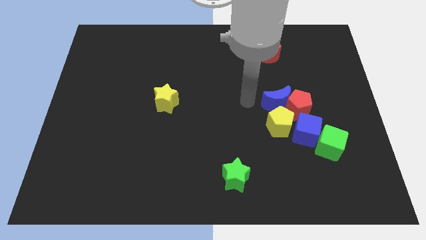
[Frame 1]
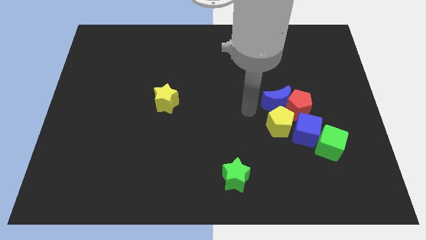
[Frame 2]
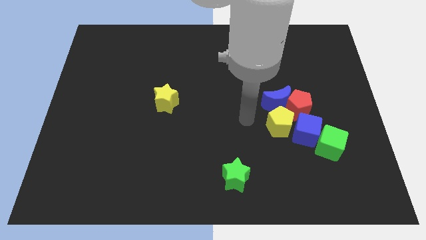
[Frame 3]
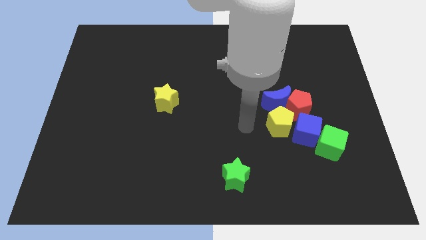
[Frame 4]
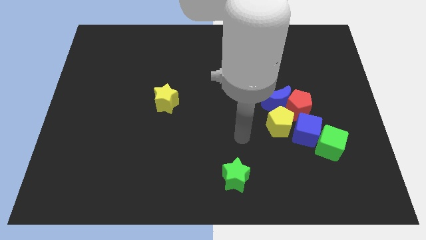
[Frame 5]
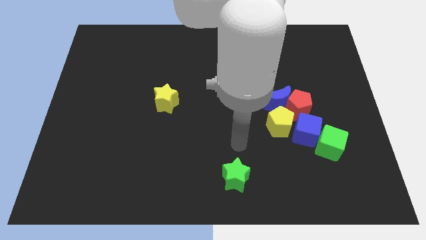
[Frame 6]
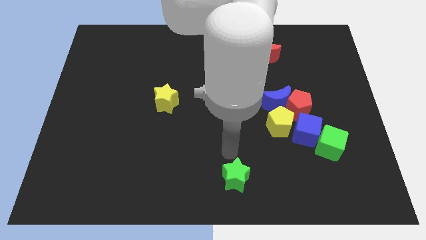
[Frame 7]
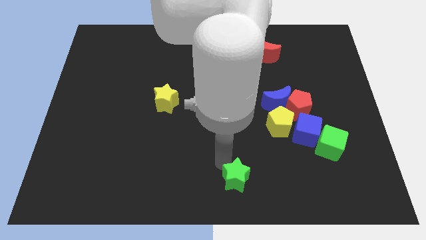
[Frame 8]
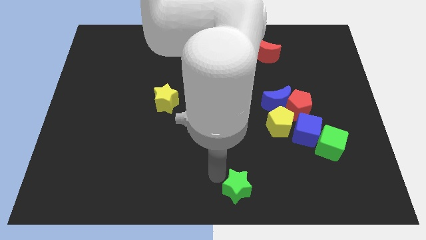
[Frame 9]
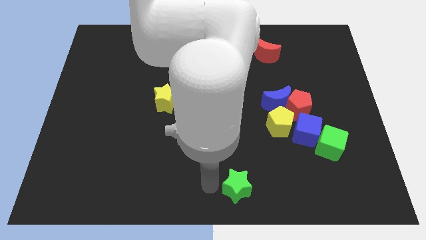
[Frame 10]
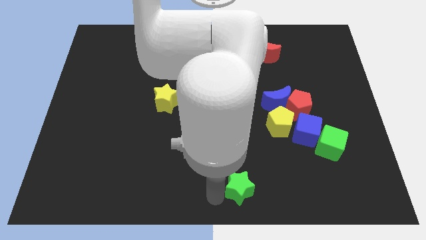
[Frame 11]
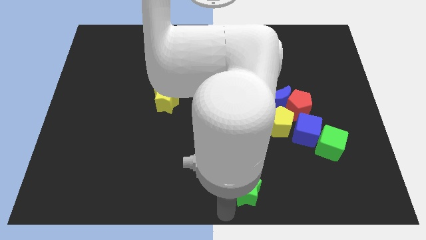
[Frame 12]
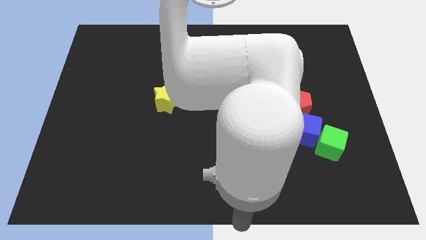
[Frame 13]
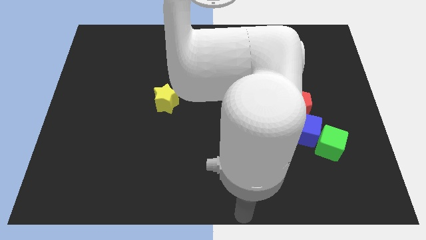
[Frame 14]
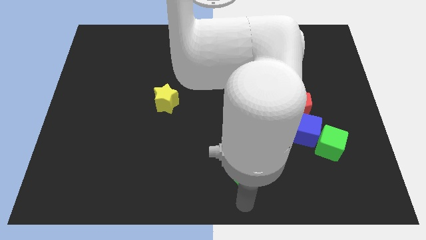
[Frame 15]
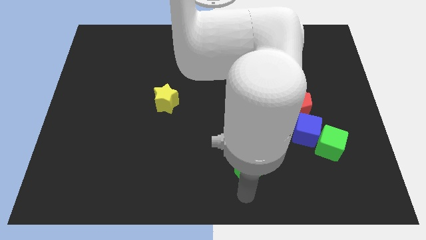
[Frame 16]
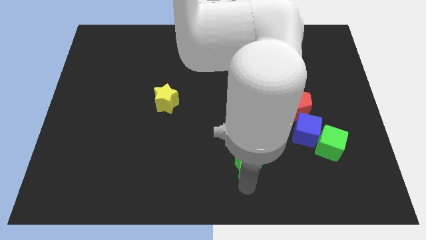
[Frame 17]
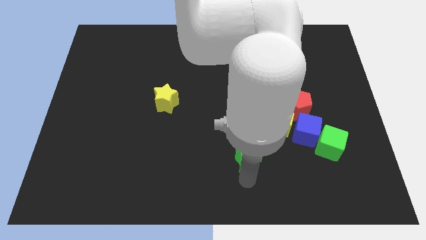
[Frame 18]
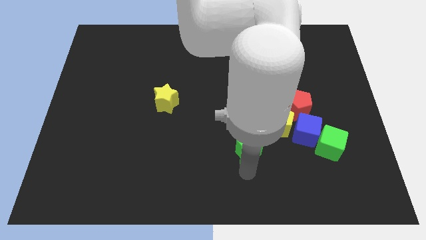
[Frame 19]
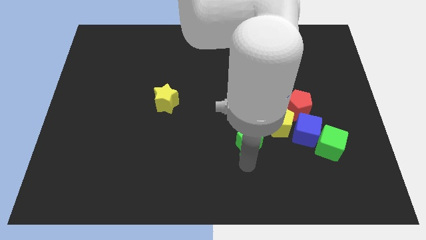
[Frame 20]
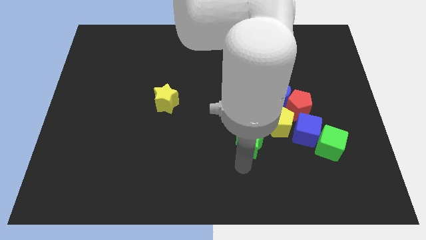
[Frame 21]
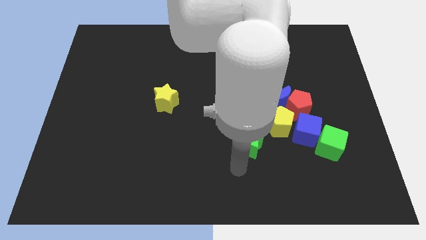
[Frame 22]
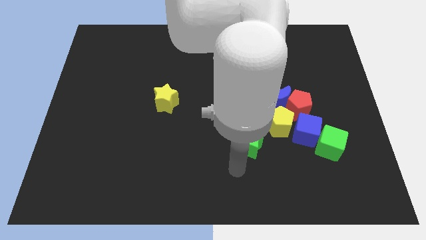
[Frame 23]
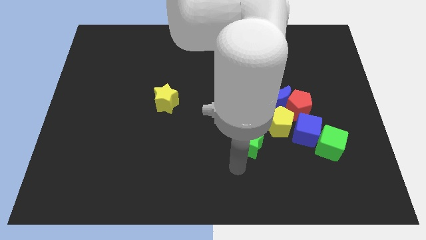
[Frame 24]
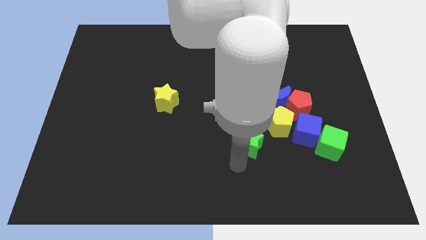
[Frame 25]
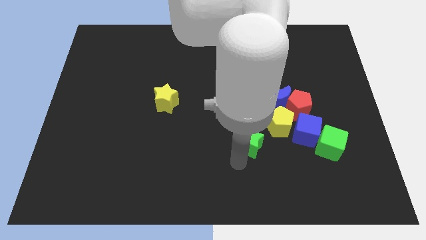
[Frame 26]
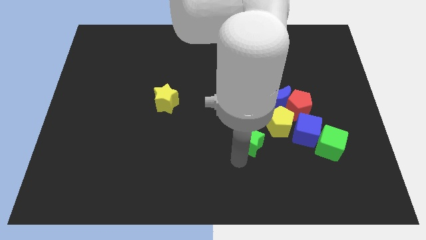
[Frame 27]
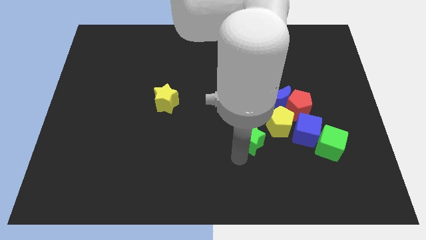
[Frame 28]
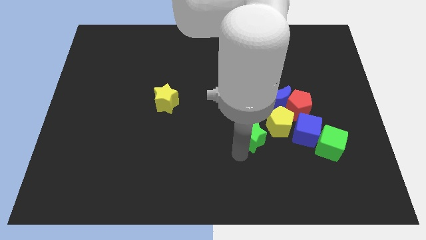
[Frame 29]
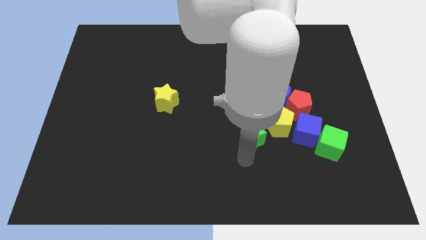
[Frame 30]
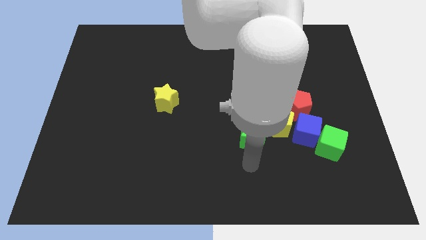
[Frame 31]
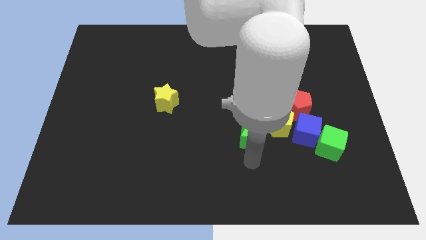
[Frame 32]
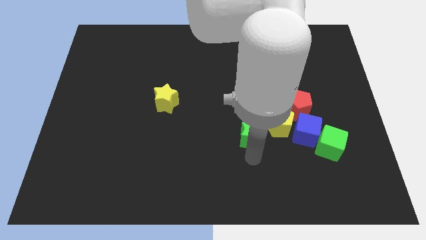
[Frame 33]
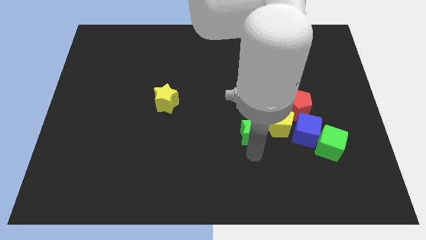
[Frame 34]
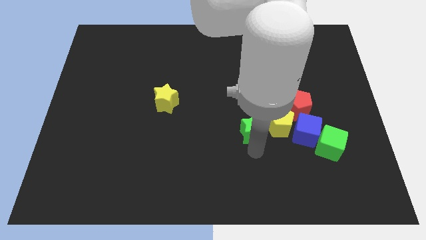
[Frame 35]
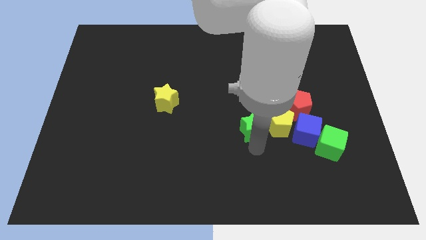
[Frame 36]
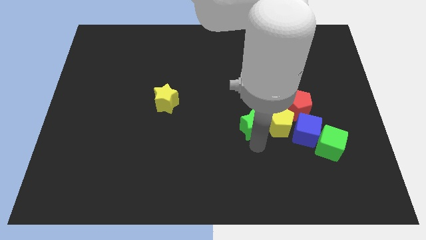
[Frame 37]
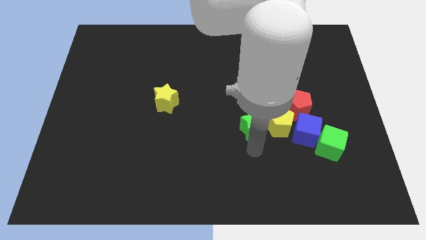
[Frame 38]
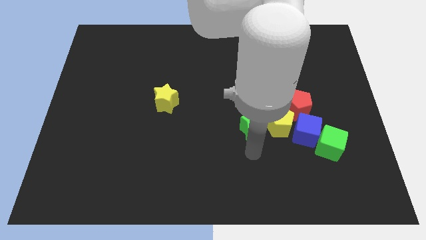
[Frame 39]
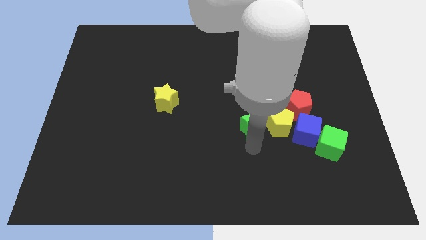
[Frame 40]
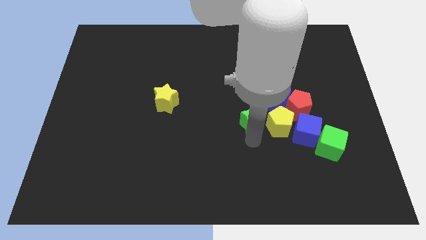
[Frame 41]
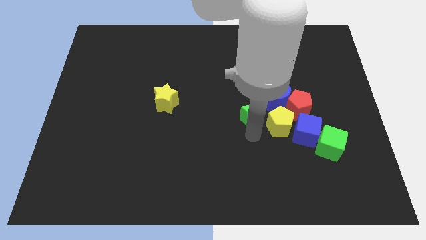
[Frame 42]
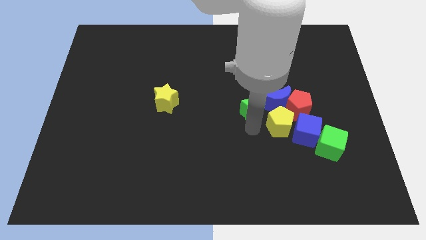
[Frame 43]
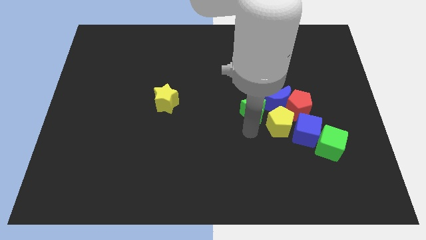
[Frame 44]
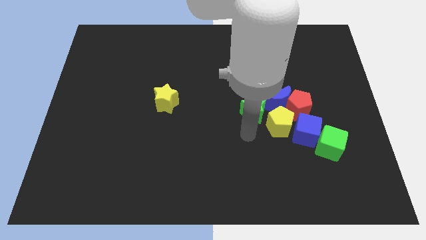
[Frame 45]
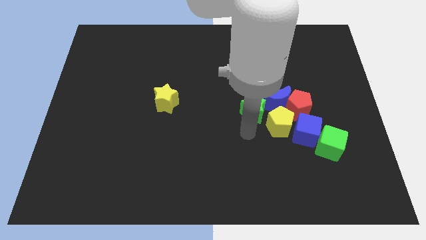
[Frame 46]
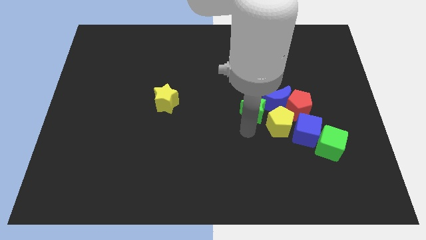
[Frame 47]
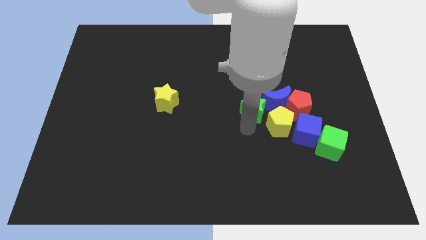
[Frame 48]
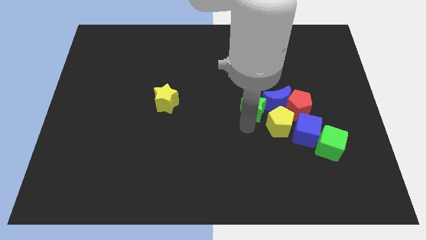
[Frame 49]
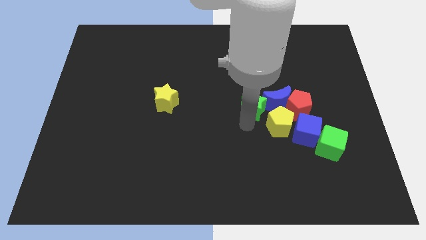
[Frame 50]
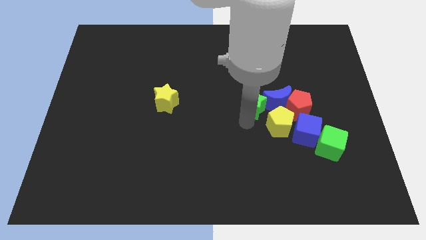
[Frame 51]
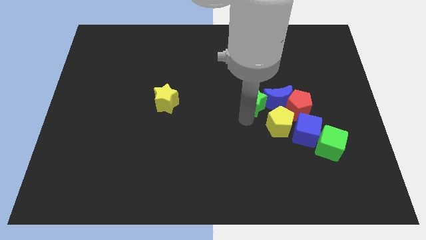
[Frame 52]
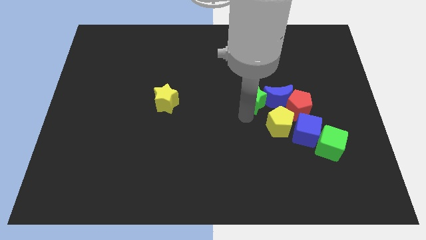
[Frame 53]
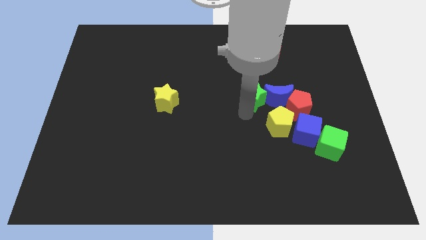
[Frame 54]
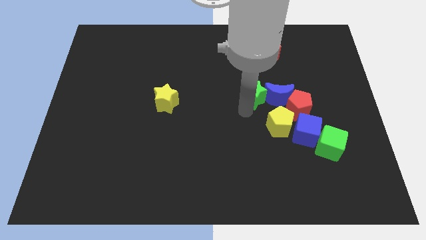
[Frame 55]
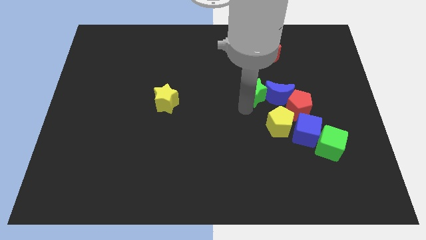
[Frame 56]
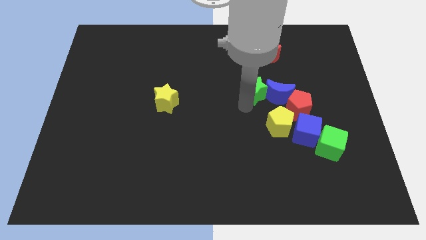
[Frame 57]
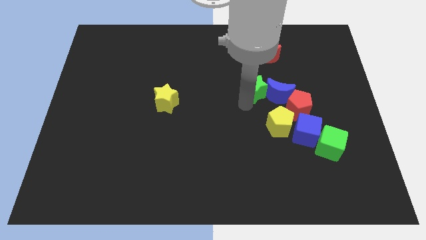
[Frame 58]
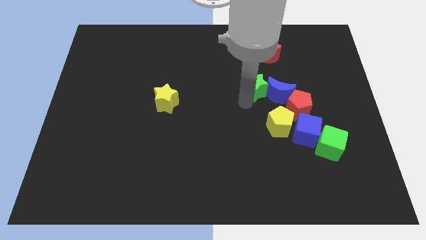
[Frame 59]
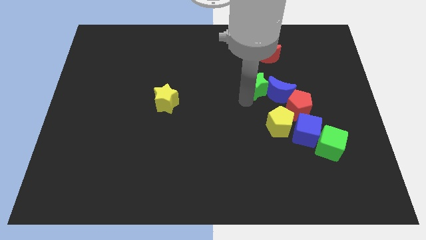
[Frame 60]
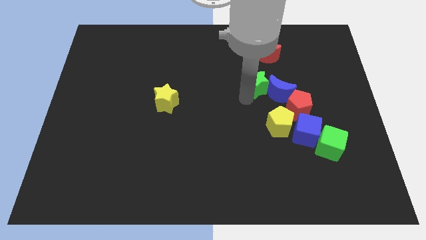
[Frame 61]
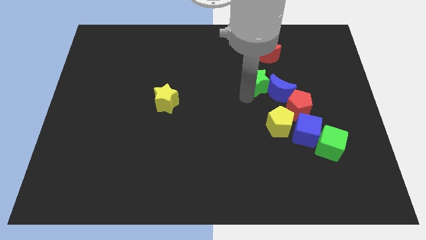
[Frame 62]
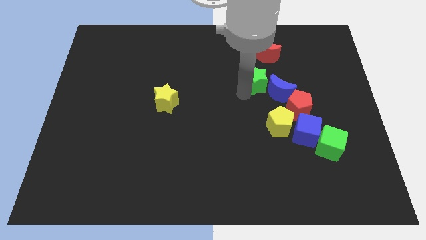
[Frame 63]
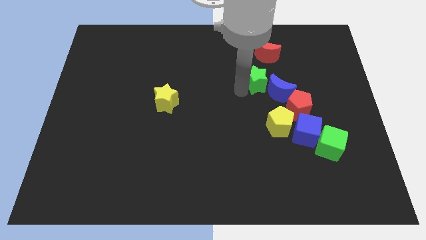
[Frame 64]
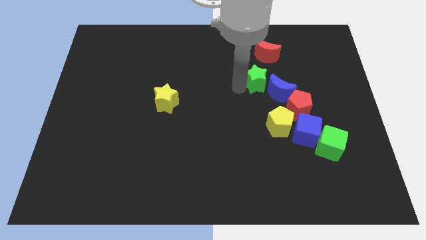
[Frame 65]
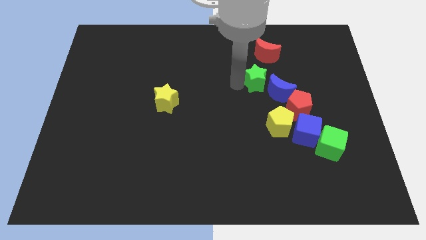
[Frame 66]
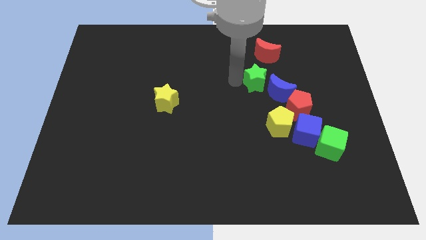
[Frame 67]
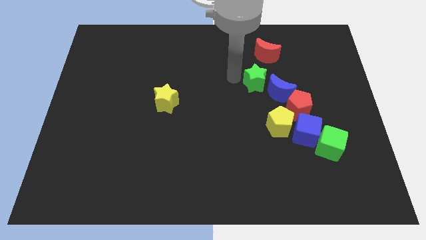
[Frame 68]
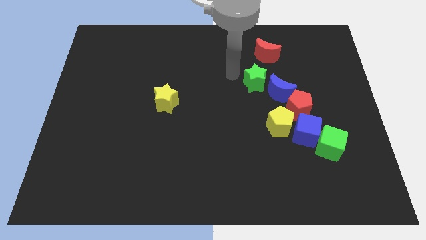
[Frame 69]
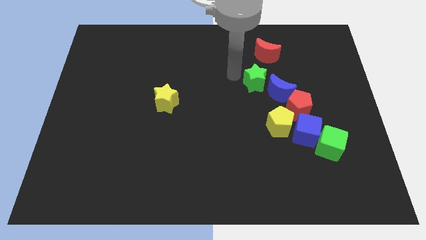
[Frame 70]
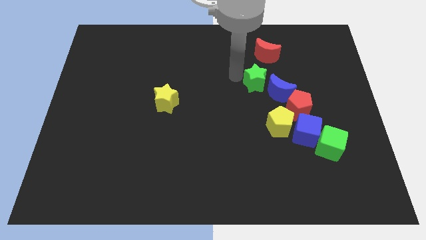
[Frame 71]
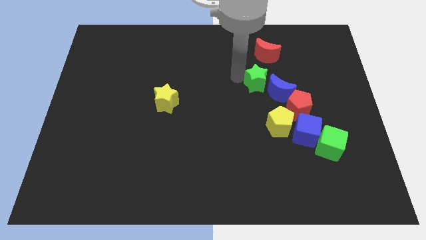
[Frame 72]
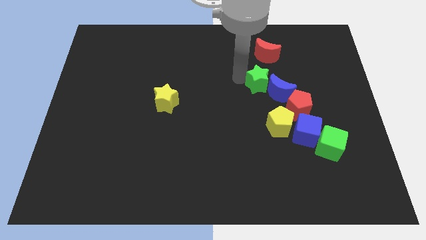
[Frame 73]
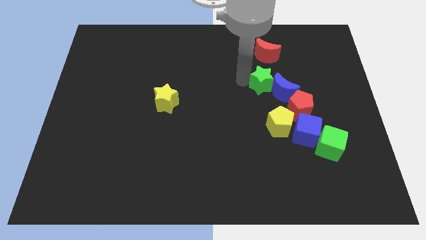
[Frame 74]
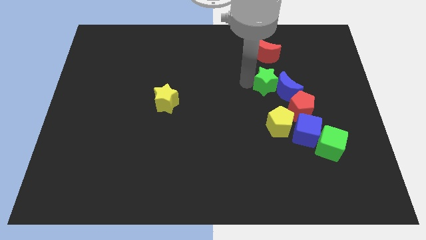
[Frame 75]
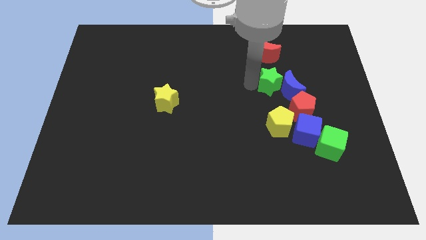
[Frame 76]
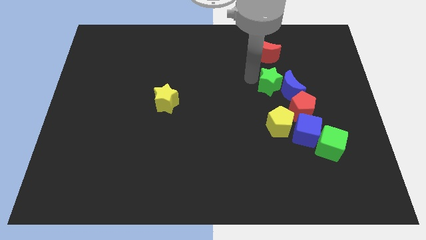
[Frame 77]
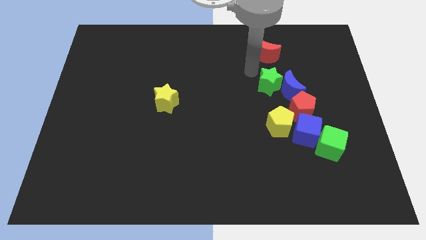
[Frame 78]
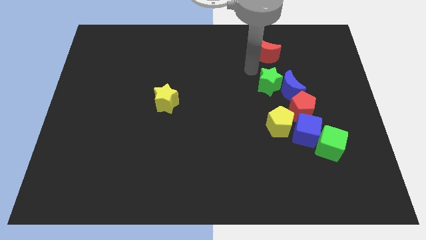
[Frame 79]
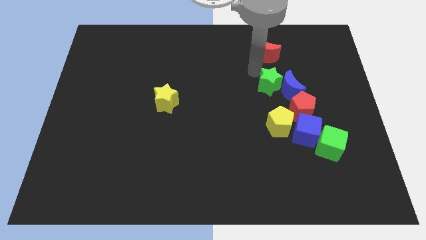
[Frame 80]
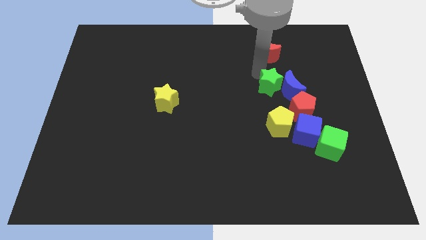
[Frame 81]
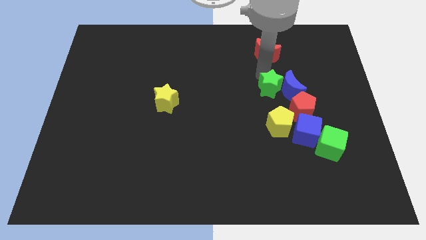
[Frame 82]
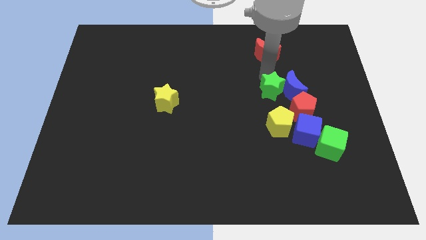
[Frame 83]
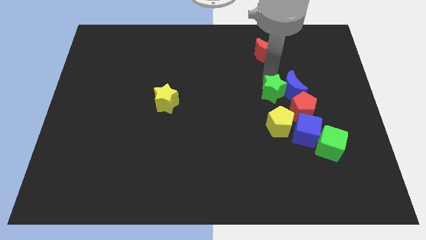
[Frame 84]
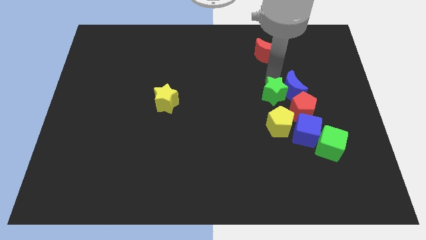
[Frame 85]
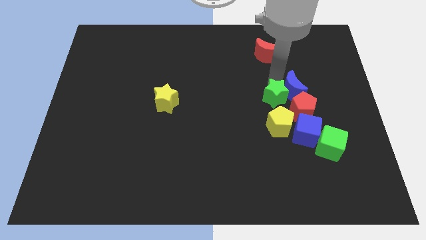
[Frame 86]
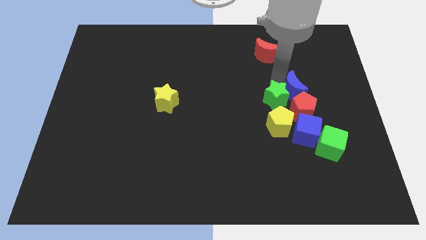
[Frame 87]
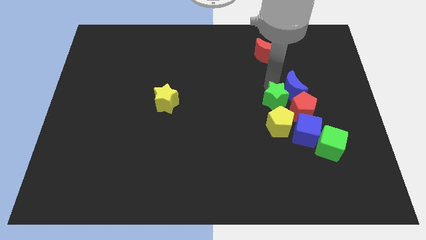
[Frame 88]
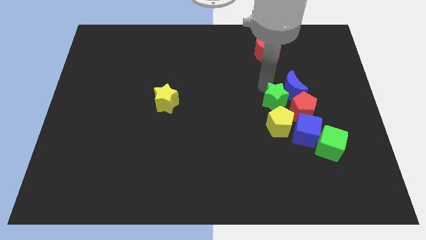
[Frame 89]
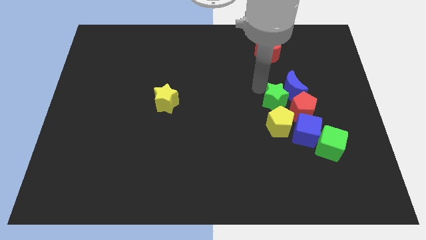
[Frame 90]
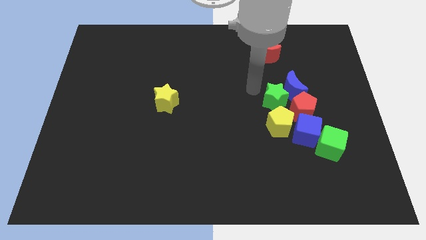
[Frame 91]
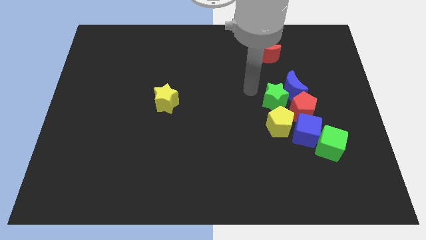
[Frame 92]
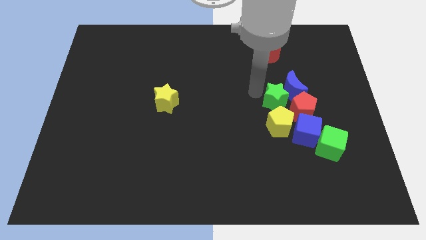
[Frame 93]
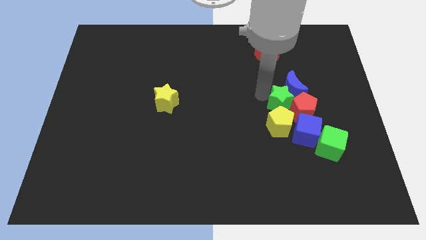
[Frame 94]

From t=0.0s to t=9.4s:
put the green star to the red pentagon
